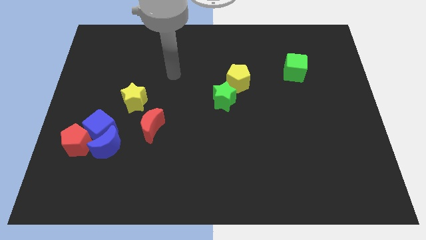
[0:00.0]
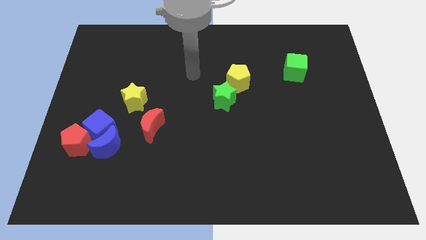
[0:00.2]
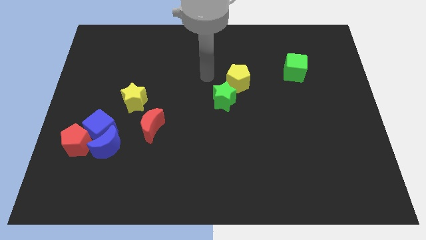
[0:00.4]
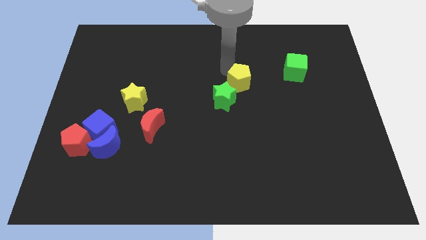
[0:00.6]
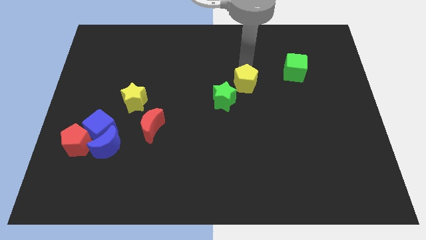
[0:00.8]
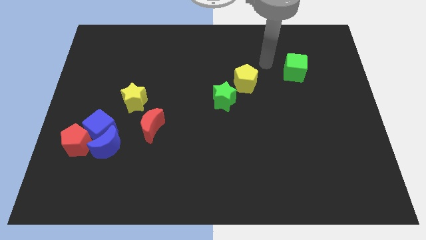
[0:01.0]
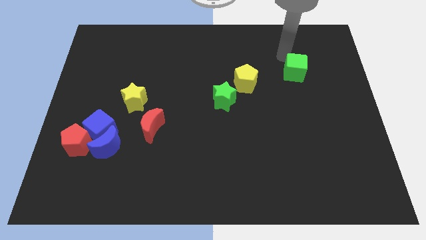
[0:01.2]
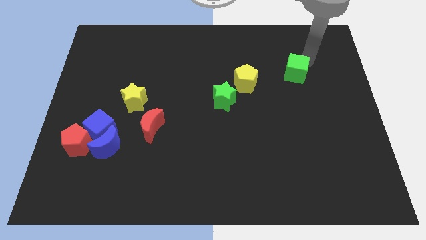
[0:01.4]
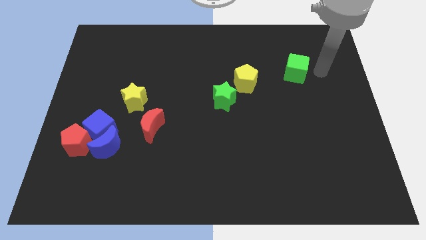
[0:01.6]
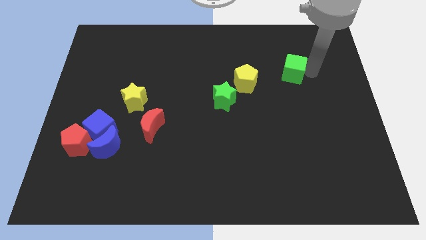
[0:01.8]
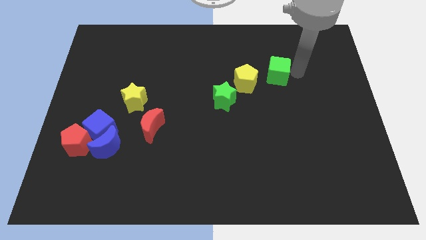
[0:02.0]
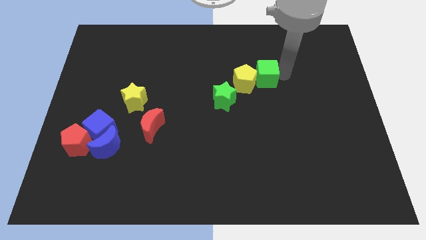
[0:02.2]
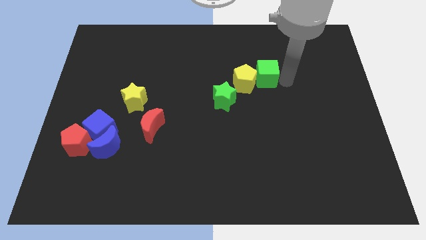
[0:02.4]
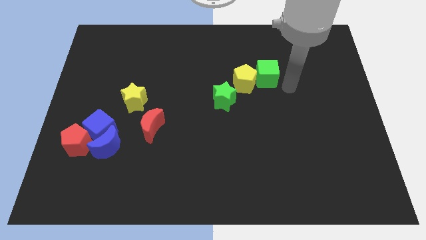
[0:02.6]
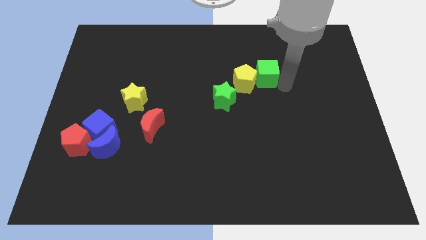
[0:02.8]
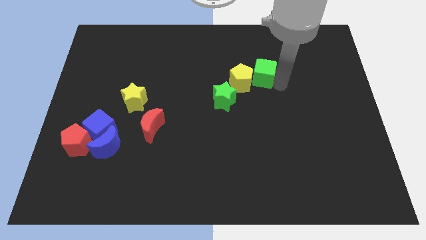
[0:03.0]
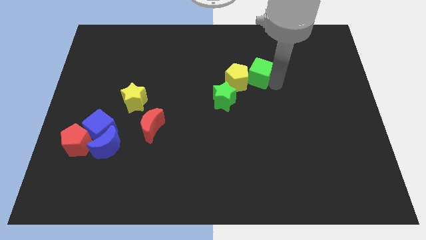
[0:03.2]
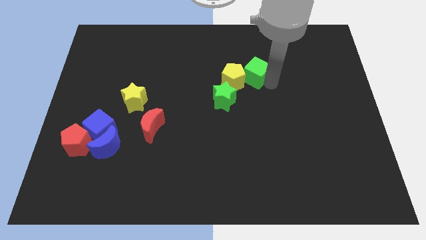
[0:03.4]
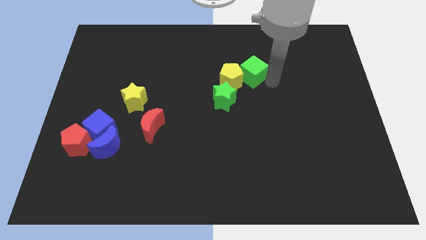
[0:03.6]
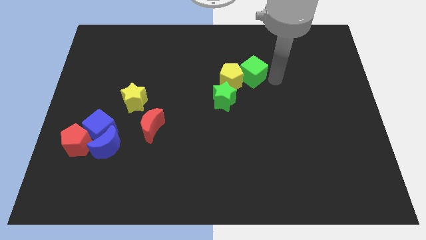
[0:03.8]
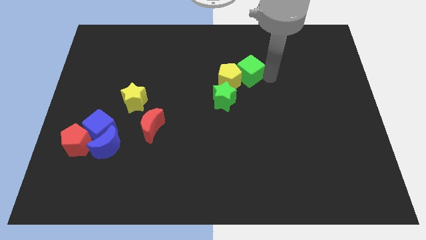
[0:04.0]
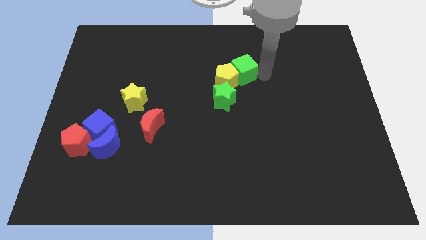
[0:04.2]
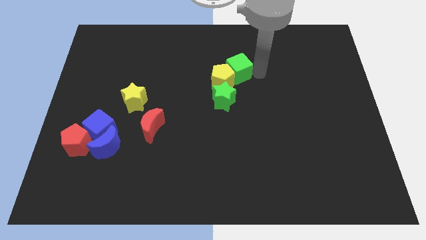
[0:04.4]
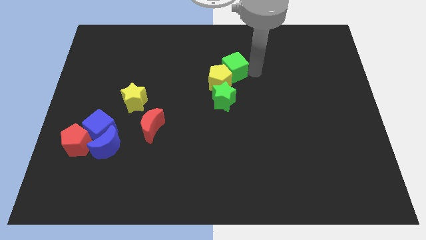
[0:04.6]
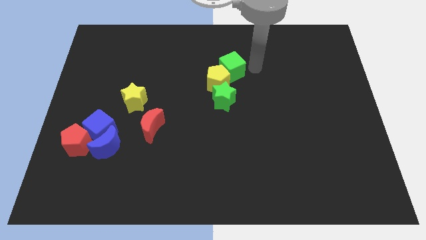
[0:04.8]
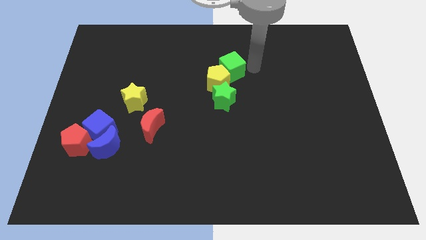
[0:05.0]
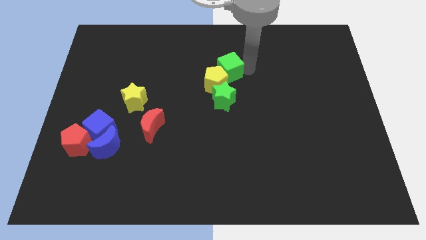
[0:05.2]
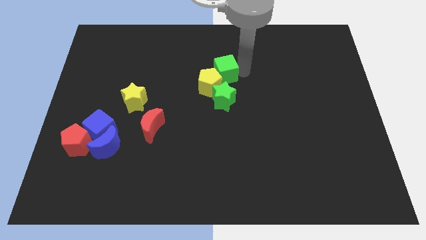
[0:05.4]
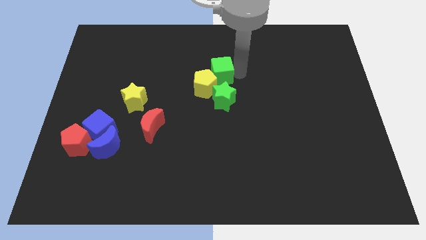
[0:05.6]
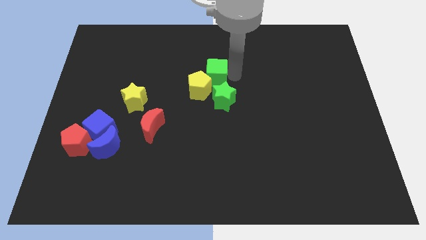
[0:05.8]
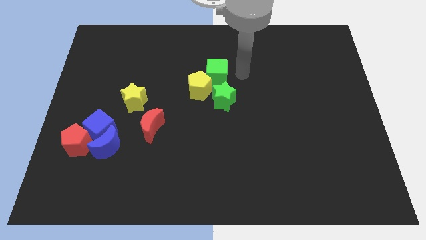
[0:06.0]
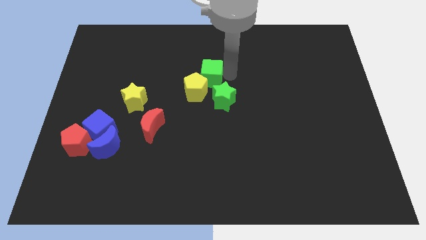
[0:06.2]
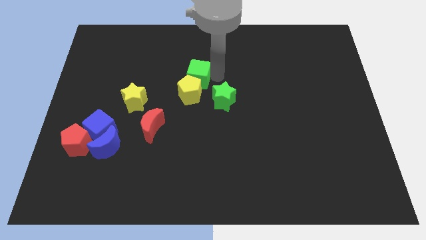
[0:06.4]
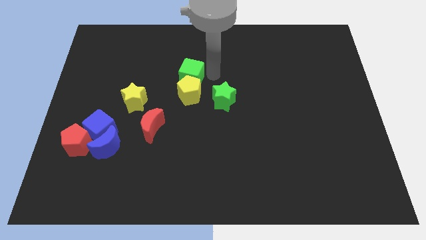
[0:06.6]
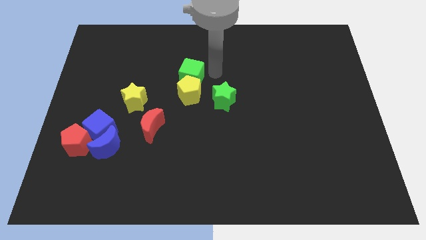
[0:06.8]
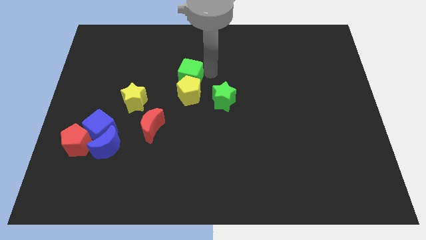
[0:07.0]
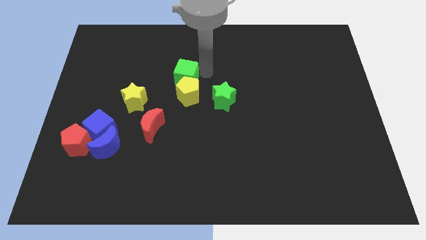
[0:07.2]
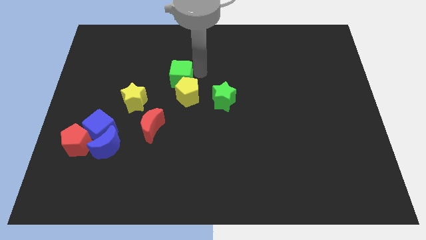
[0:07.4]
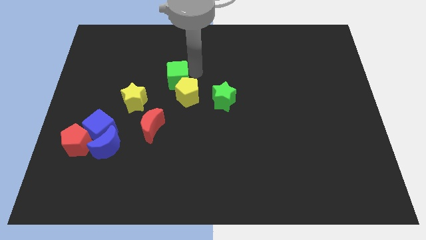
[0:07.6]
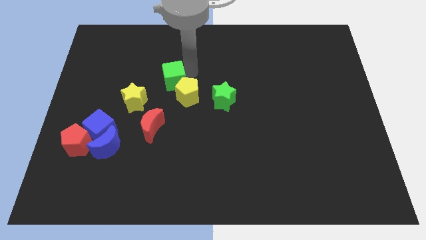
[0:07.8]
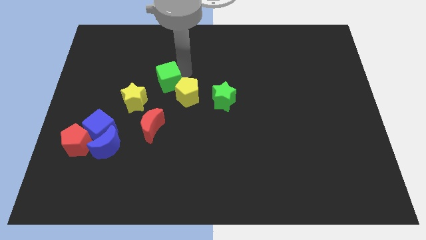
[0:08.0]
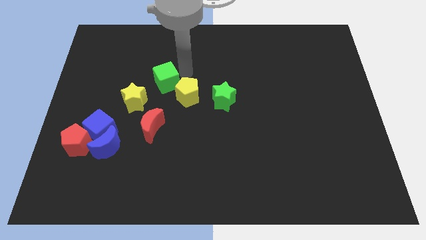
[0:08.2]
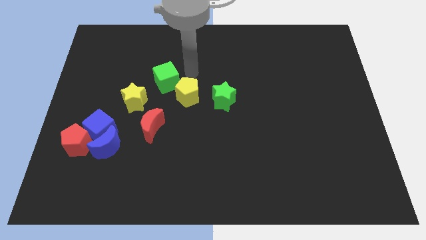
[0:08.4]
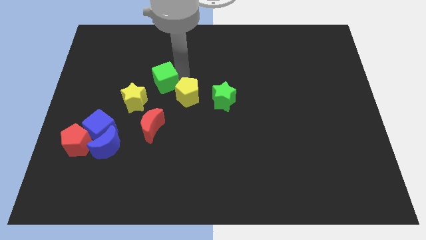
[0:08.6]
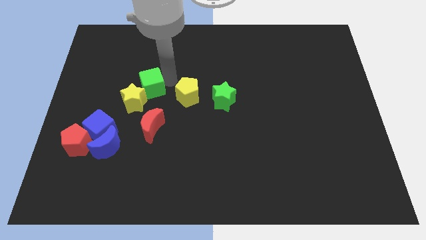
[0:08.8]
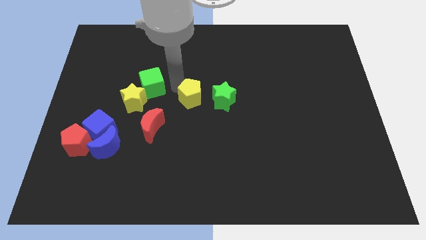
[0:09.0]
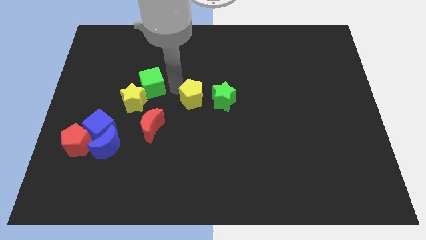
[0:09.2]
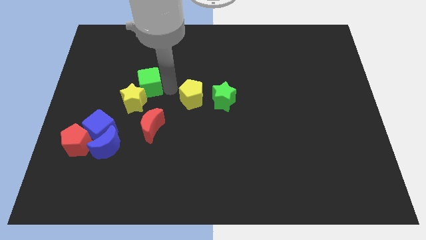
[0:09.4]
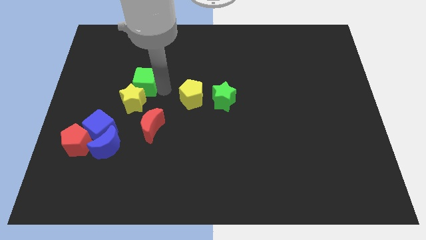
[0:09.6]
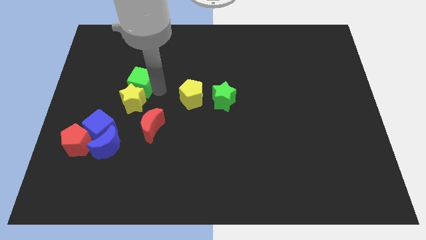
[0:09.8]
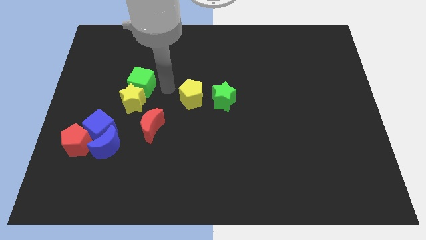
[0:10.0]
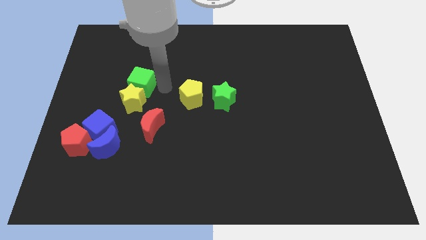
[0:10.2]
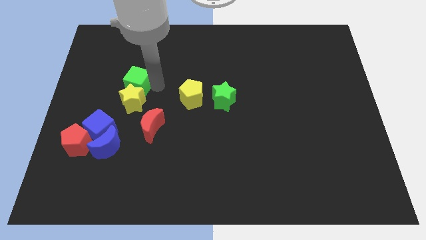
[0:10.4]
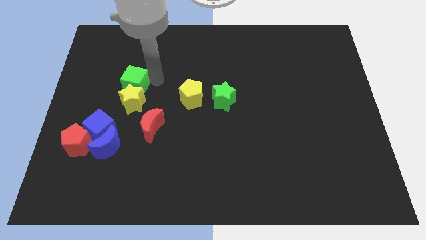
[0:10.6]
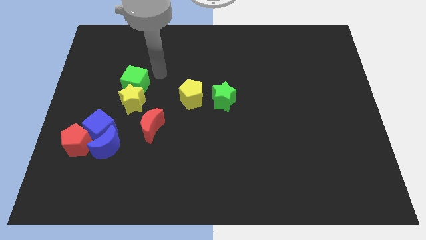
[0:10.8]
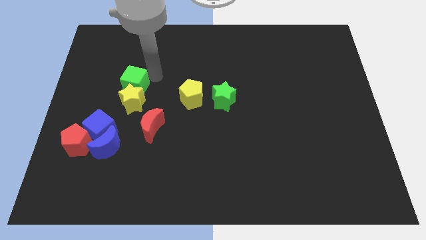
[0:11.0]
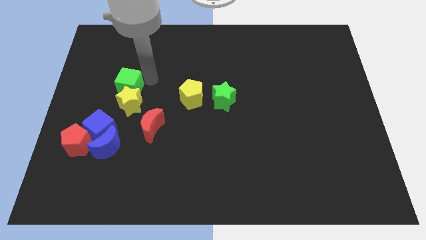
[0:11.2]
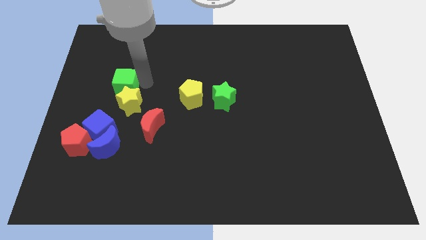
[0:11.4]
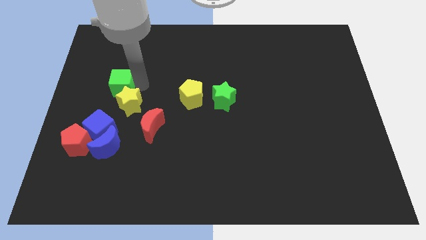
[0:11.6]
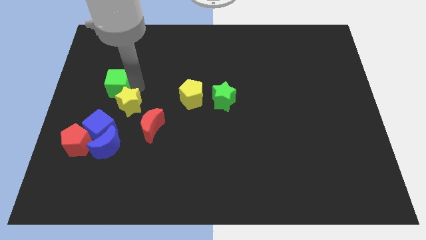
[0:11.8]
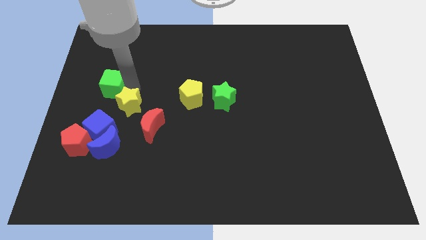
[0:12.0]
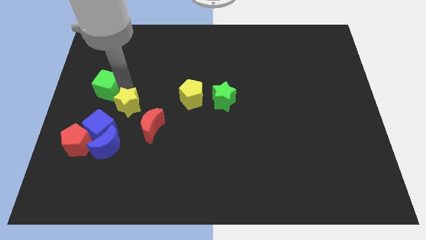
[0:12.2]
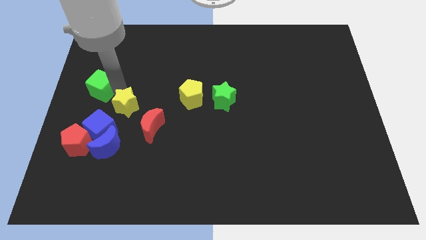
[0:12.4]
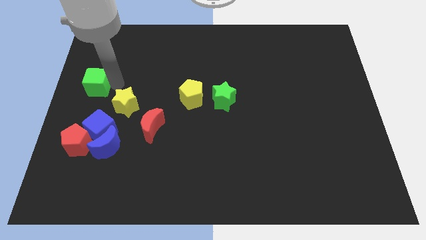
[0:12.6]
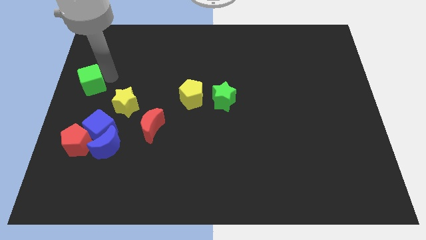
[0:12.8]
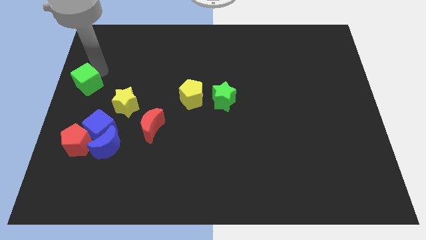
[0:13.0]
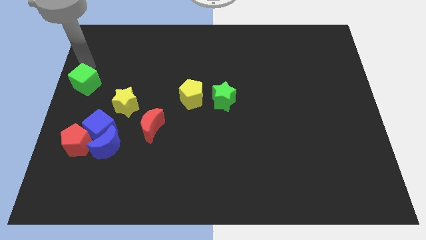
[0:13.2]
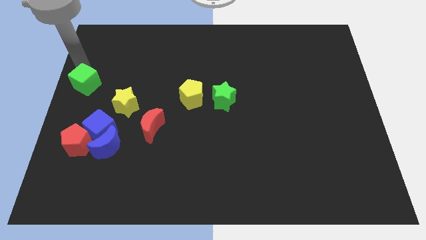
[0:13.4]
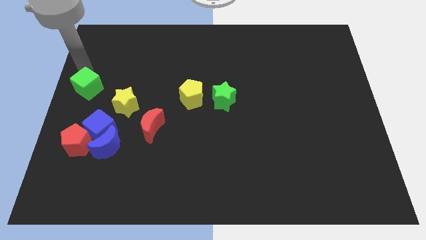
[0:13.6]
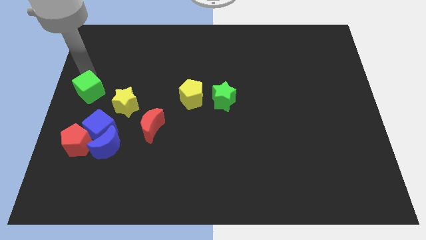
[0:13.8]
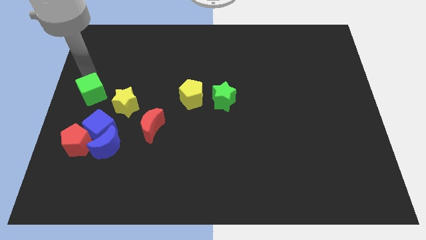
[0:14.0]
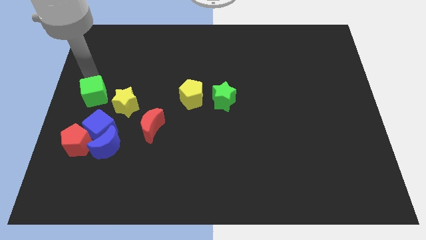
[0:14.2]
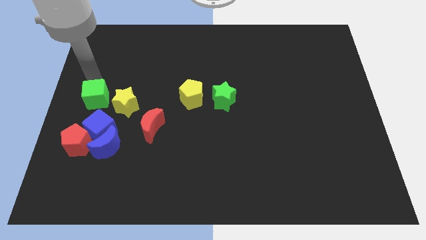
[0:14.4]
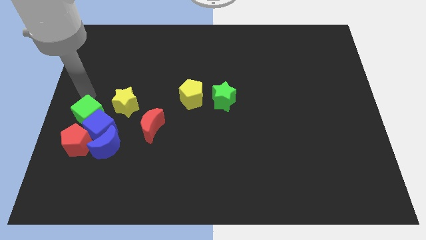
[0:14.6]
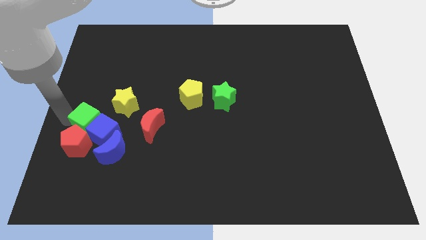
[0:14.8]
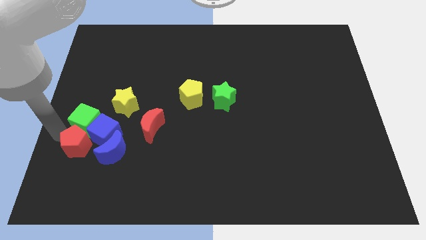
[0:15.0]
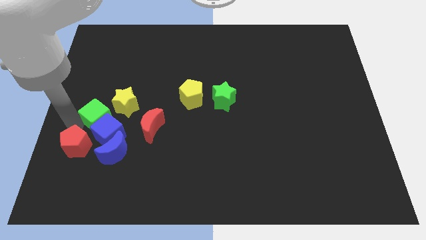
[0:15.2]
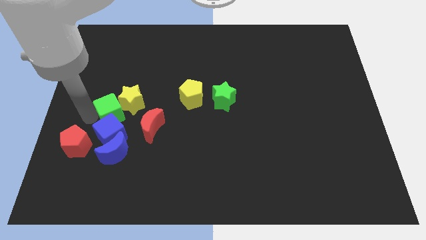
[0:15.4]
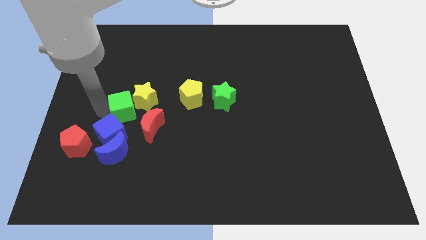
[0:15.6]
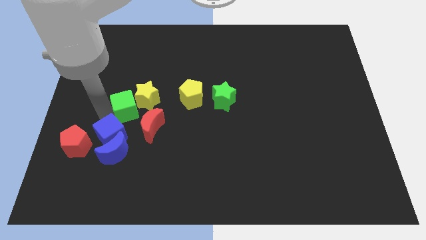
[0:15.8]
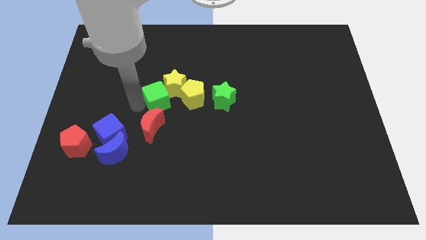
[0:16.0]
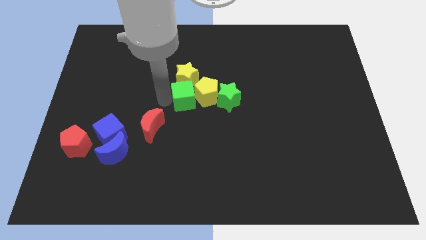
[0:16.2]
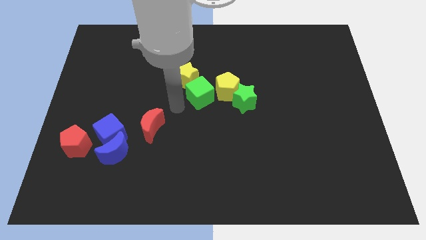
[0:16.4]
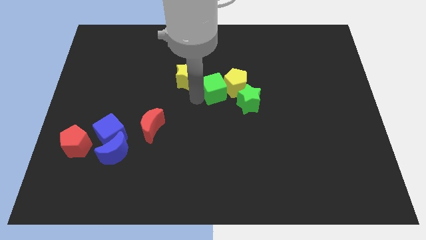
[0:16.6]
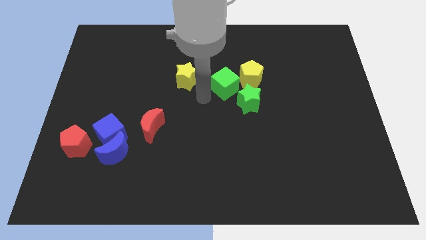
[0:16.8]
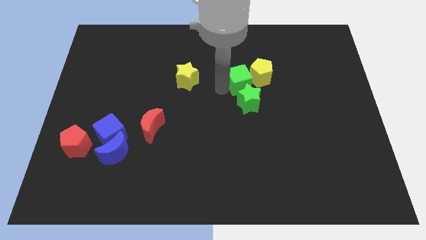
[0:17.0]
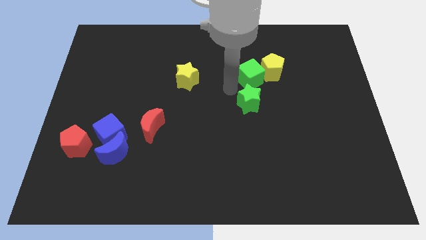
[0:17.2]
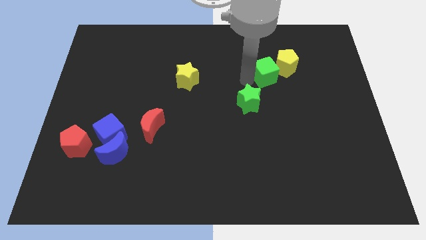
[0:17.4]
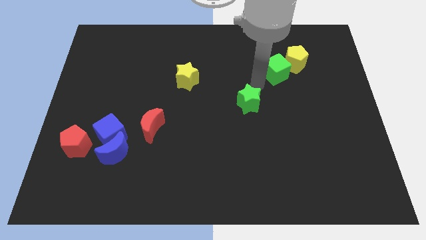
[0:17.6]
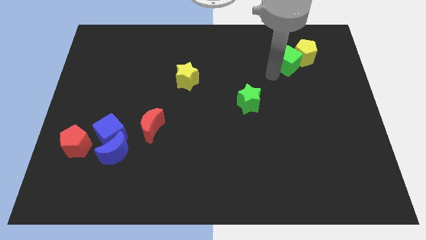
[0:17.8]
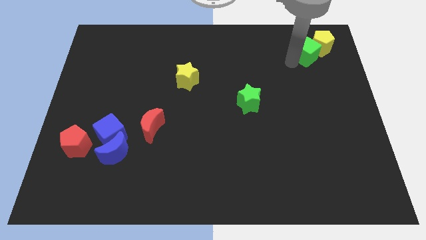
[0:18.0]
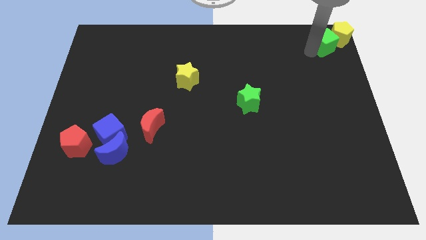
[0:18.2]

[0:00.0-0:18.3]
put the green cube to the top right of the board
